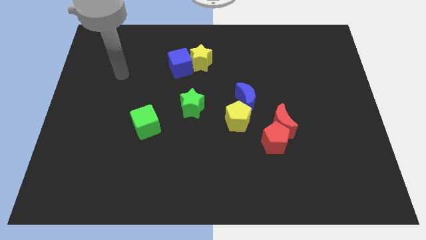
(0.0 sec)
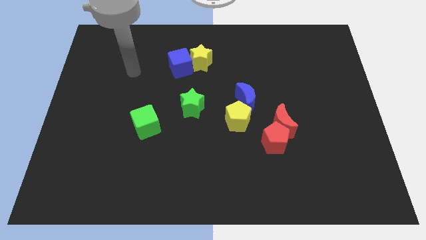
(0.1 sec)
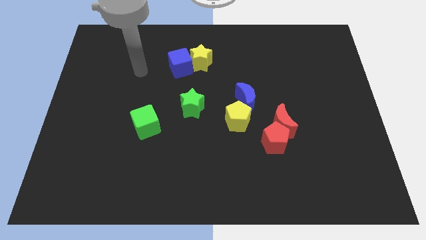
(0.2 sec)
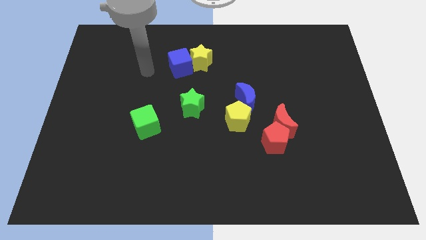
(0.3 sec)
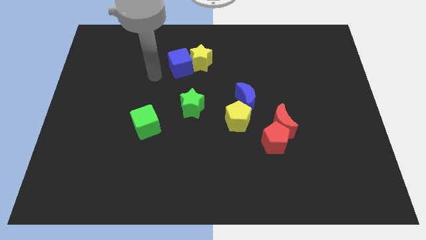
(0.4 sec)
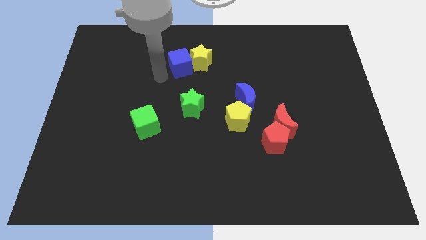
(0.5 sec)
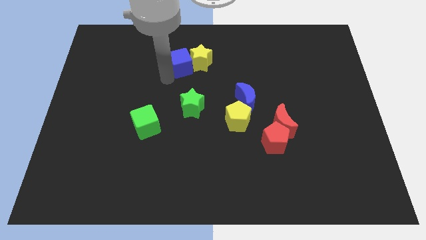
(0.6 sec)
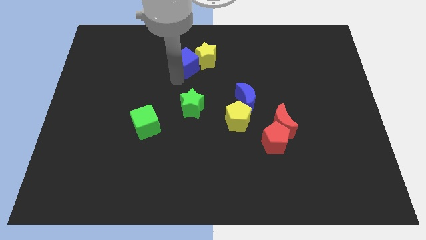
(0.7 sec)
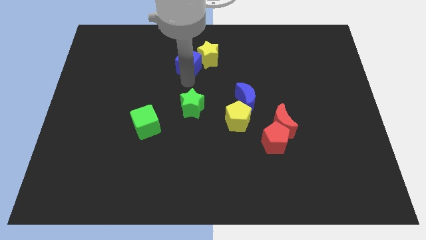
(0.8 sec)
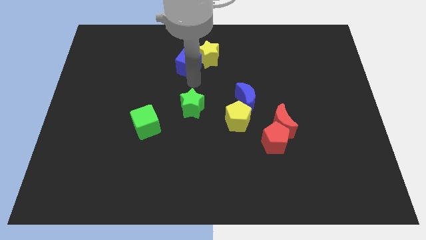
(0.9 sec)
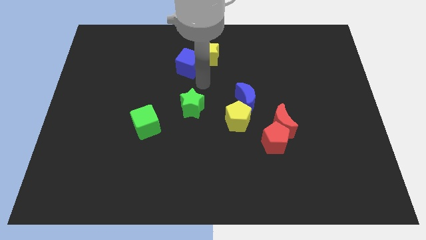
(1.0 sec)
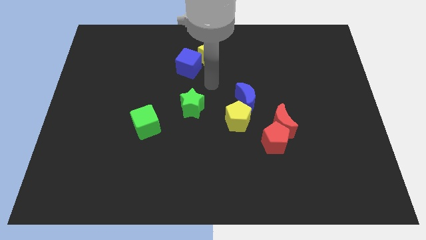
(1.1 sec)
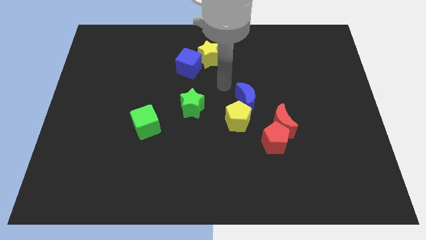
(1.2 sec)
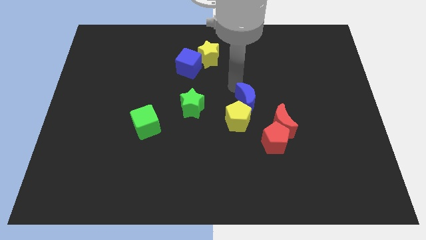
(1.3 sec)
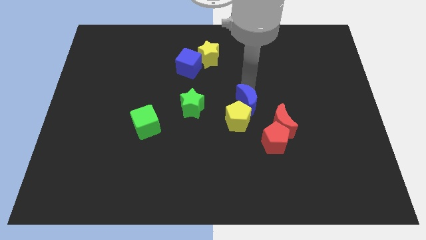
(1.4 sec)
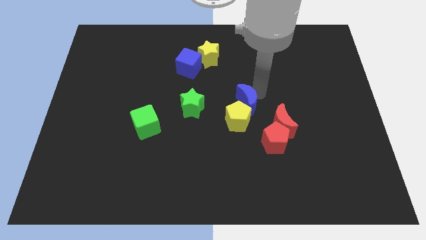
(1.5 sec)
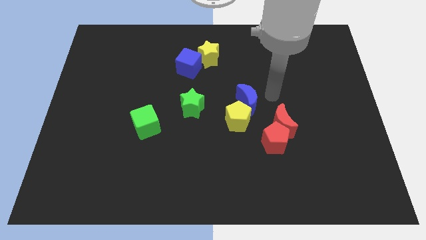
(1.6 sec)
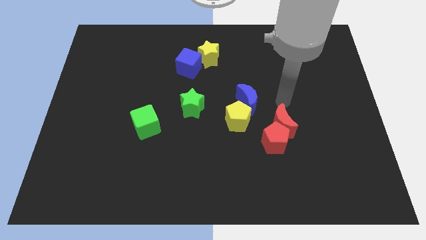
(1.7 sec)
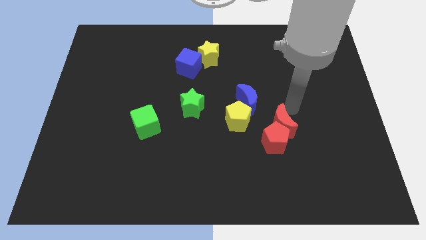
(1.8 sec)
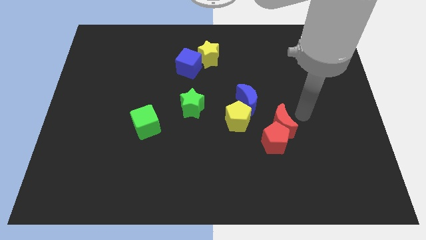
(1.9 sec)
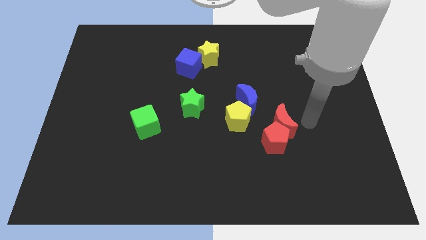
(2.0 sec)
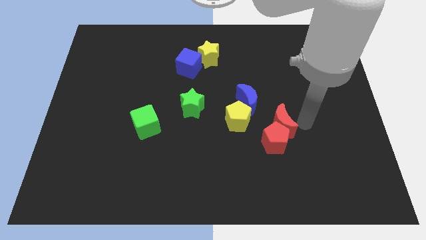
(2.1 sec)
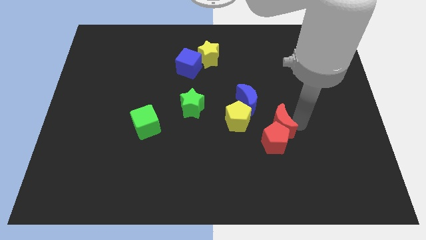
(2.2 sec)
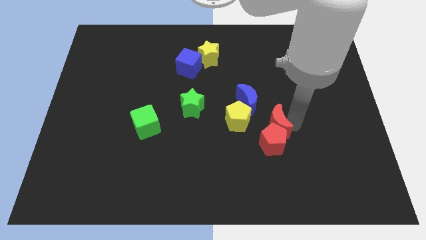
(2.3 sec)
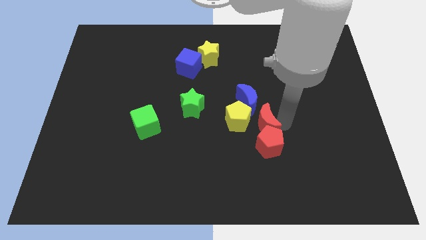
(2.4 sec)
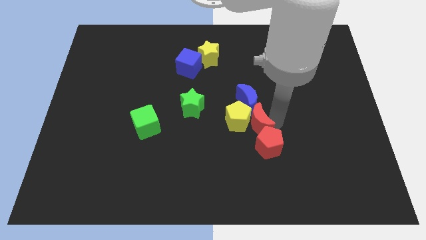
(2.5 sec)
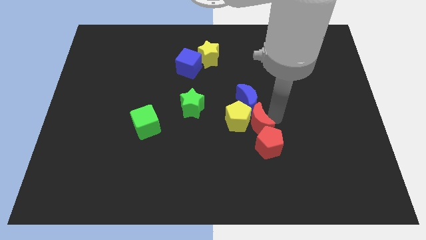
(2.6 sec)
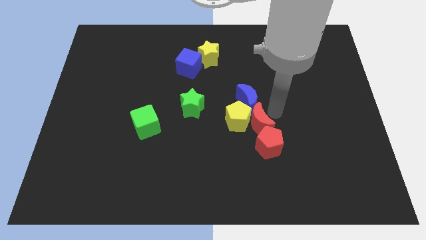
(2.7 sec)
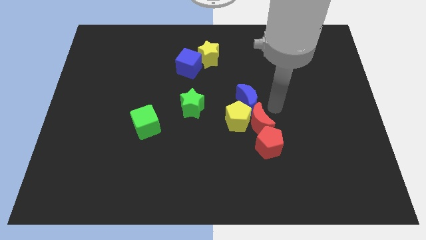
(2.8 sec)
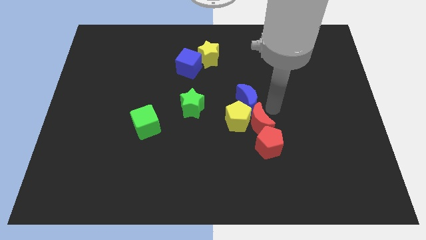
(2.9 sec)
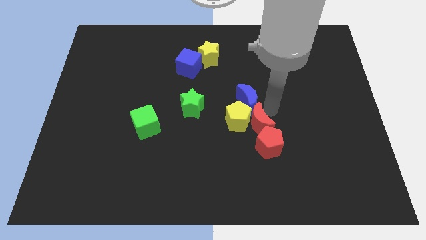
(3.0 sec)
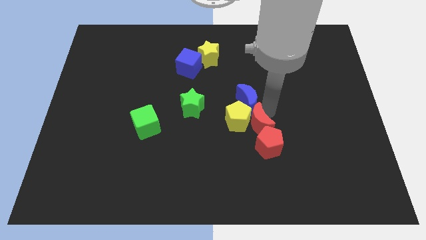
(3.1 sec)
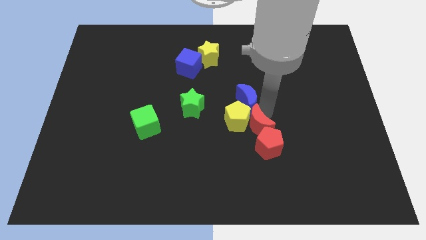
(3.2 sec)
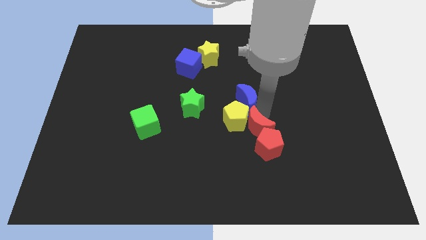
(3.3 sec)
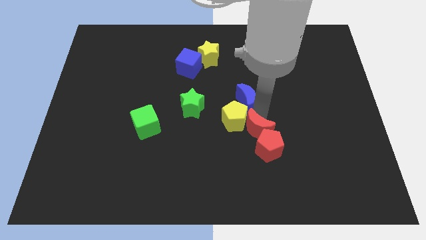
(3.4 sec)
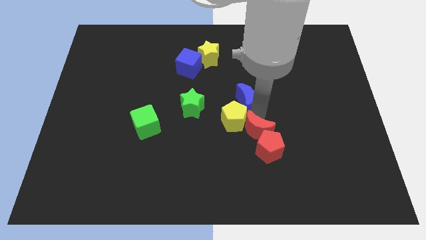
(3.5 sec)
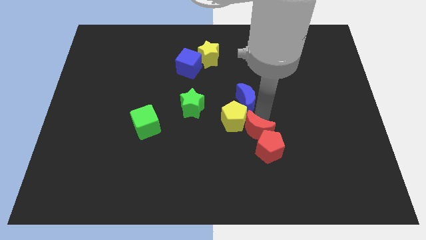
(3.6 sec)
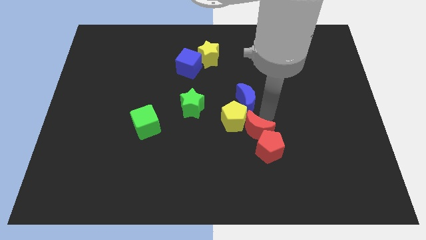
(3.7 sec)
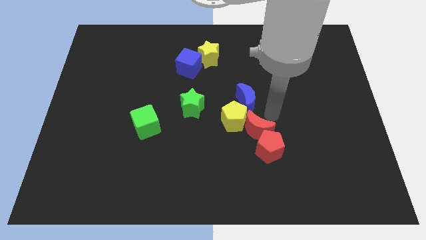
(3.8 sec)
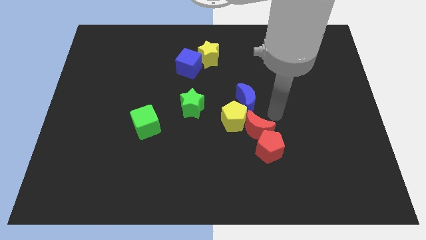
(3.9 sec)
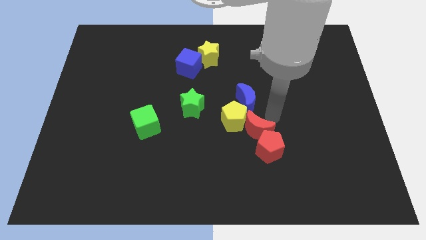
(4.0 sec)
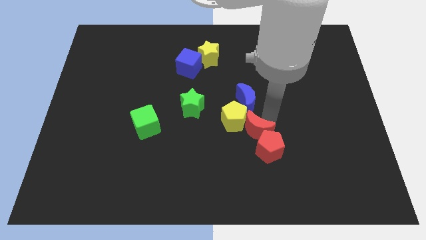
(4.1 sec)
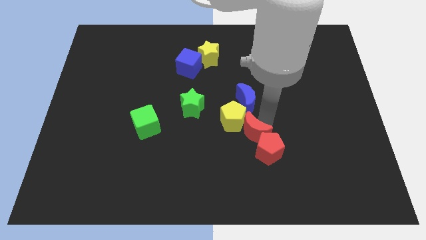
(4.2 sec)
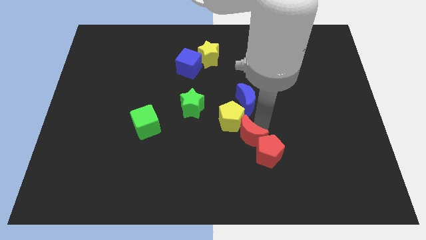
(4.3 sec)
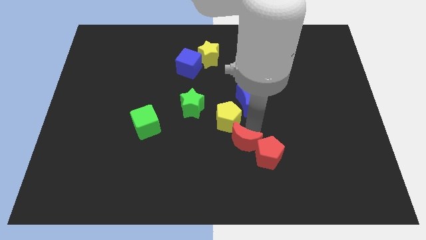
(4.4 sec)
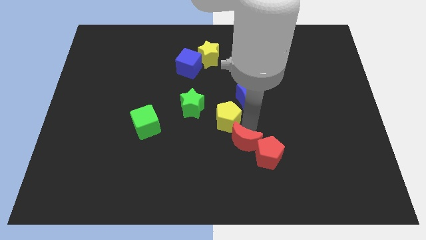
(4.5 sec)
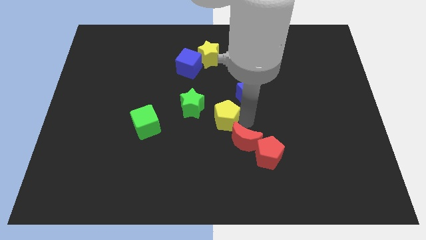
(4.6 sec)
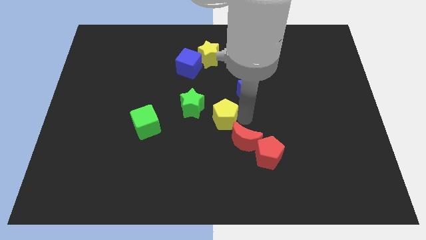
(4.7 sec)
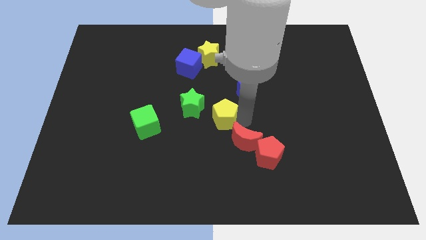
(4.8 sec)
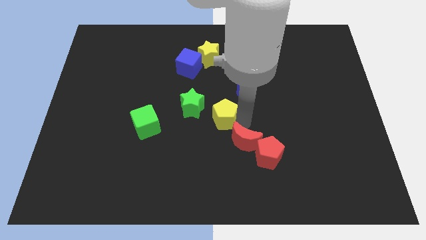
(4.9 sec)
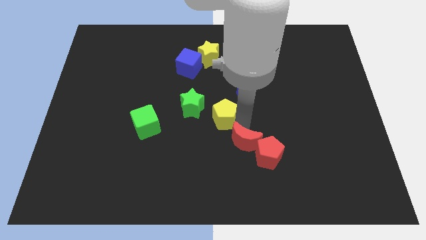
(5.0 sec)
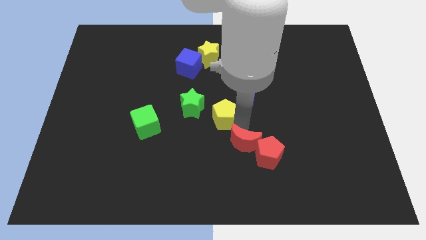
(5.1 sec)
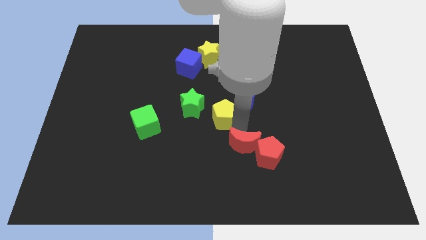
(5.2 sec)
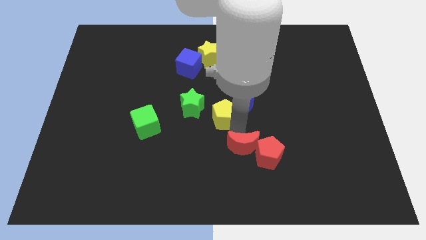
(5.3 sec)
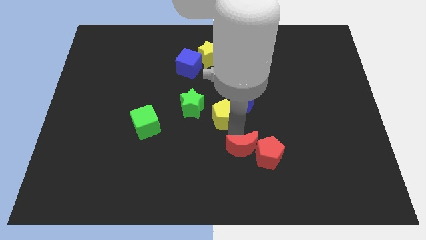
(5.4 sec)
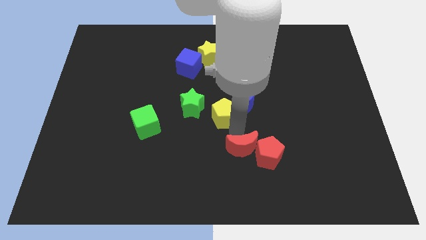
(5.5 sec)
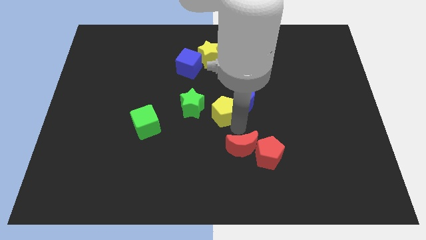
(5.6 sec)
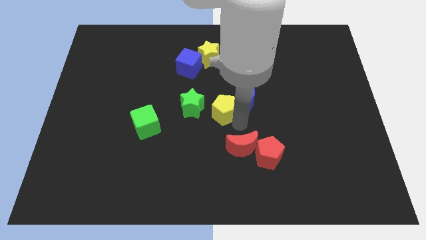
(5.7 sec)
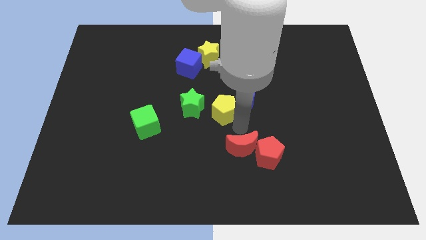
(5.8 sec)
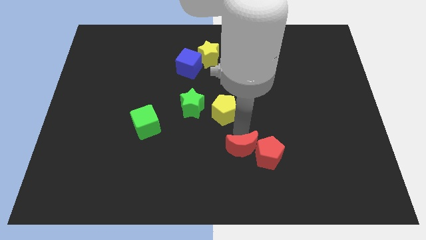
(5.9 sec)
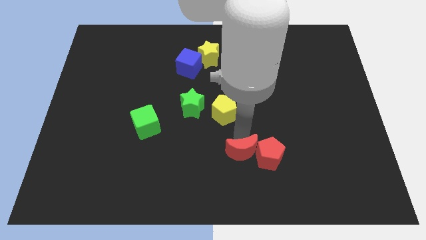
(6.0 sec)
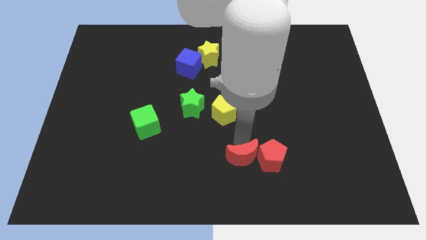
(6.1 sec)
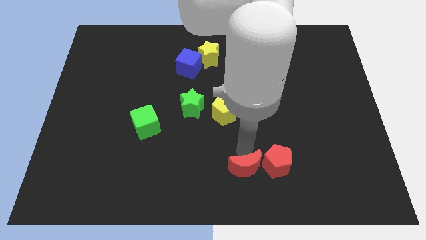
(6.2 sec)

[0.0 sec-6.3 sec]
move the red moon to the bottom side

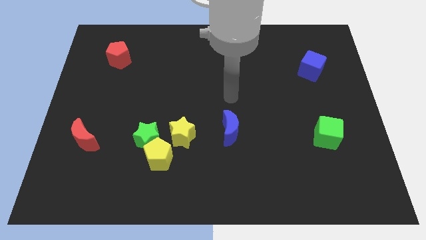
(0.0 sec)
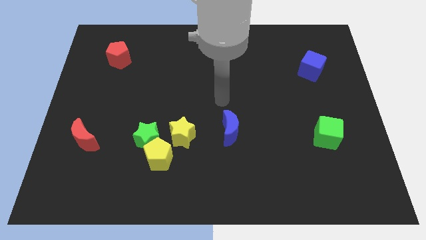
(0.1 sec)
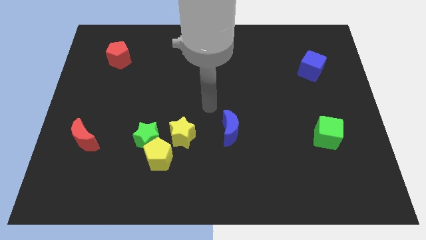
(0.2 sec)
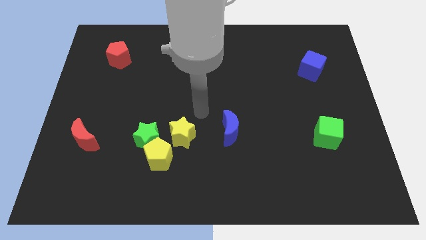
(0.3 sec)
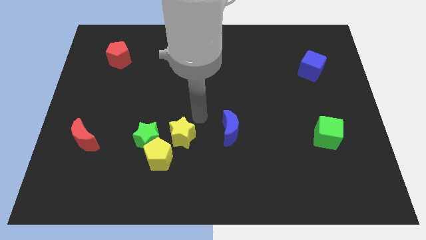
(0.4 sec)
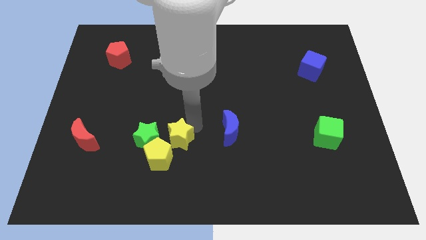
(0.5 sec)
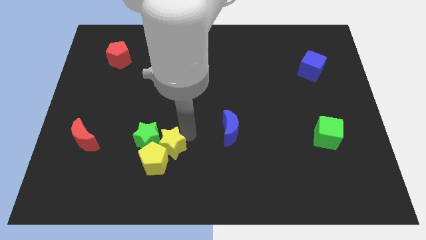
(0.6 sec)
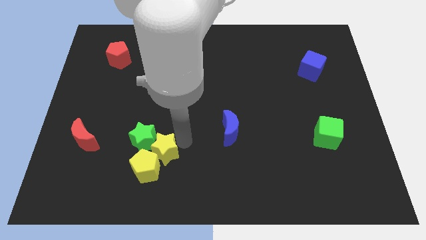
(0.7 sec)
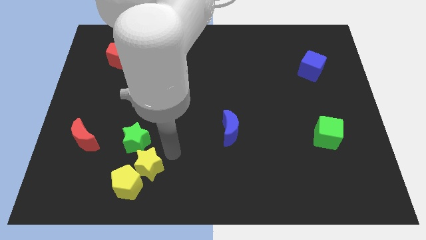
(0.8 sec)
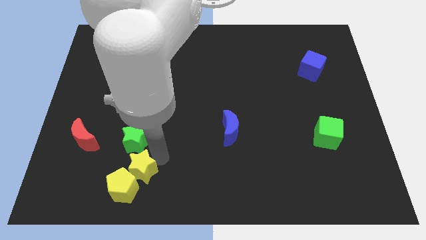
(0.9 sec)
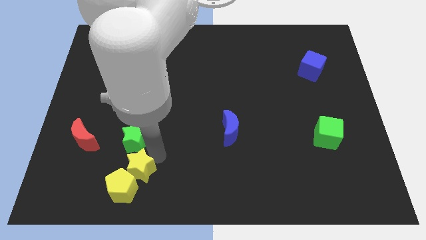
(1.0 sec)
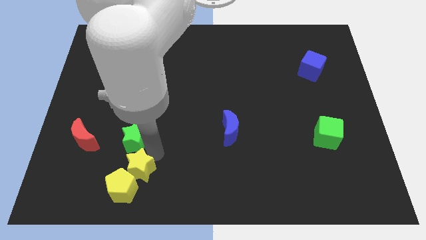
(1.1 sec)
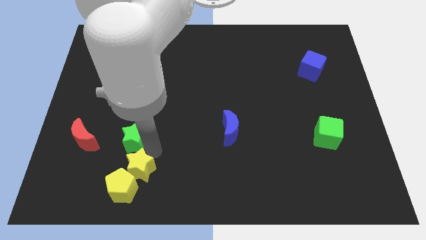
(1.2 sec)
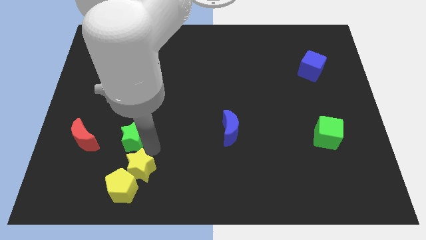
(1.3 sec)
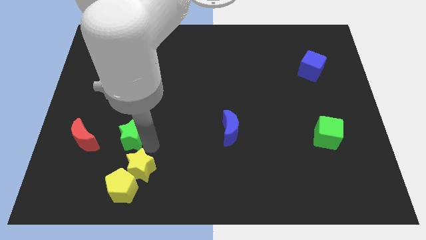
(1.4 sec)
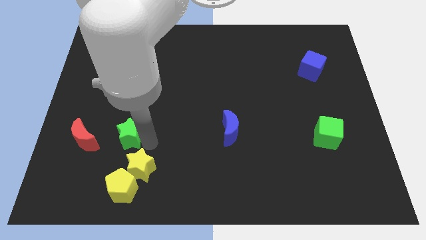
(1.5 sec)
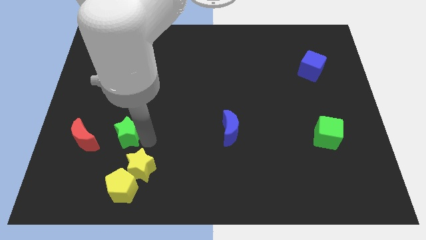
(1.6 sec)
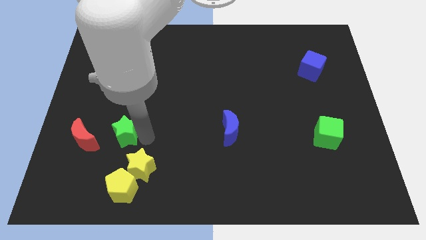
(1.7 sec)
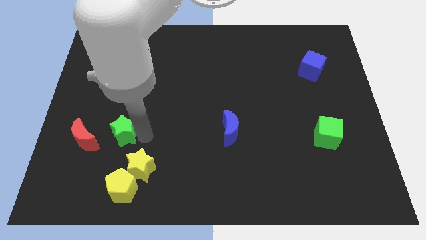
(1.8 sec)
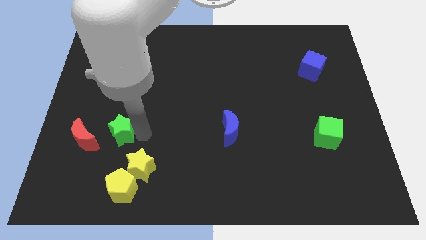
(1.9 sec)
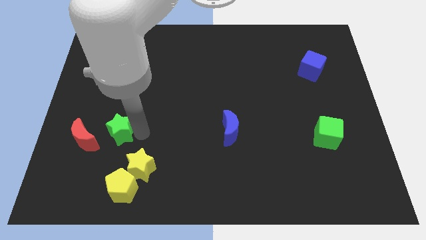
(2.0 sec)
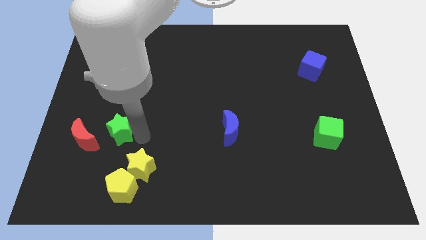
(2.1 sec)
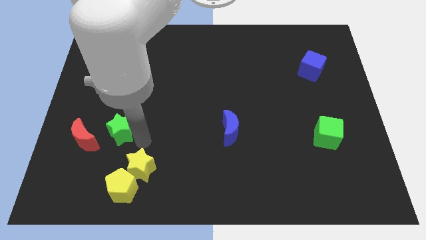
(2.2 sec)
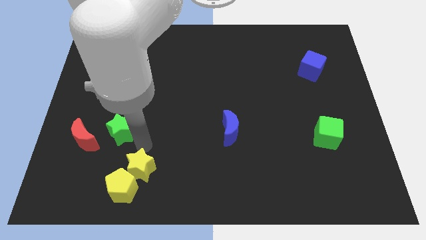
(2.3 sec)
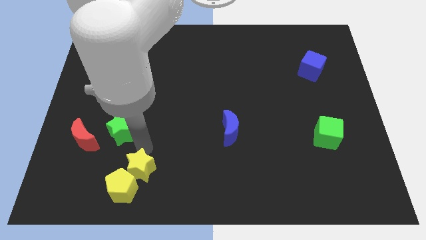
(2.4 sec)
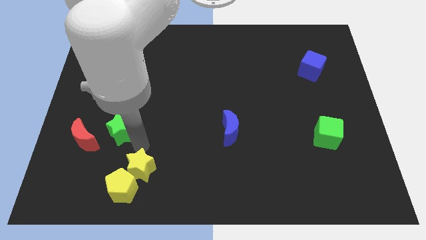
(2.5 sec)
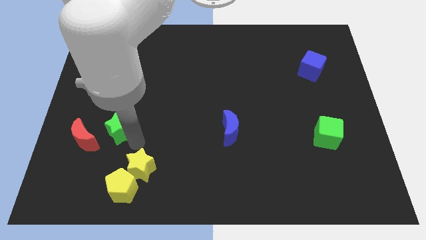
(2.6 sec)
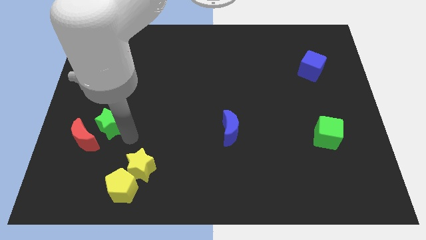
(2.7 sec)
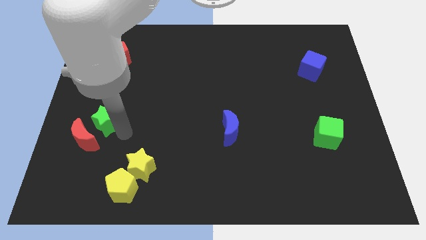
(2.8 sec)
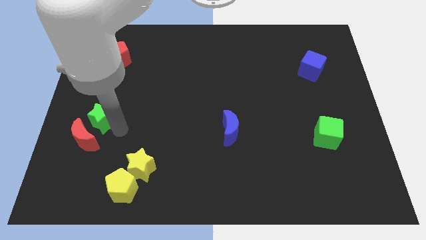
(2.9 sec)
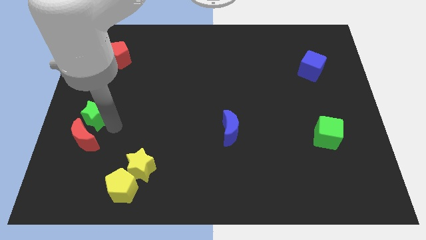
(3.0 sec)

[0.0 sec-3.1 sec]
move the green star to the left side of the board
